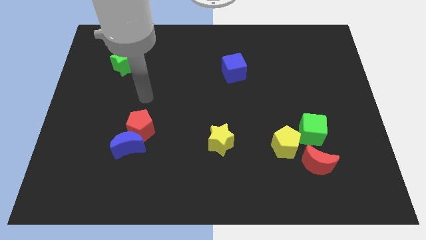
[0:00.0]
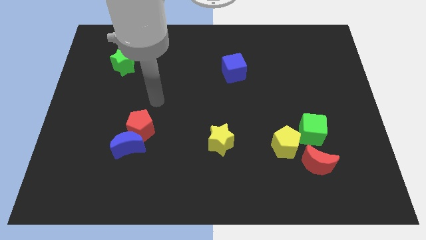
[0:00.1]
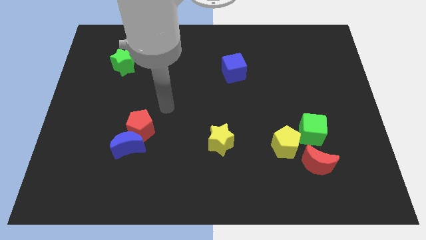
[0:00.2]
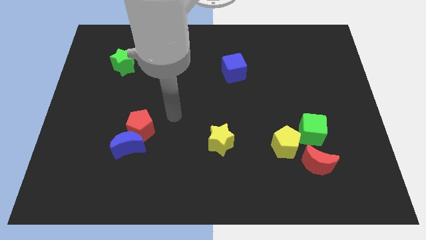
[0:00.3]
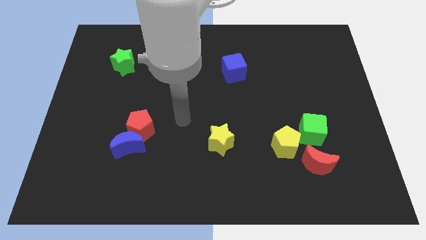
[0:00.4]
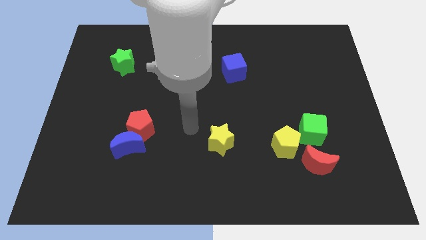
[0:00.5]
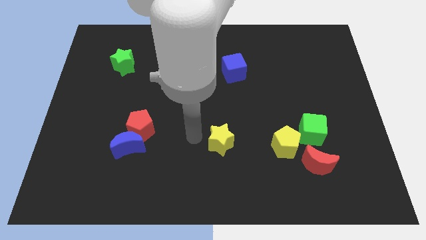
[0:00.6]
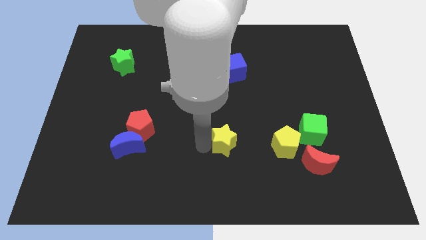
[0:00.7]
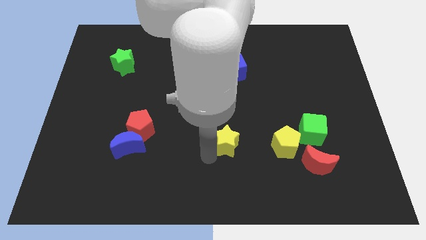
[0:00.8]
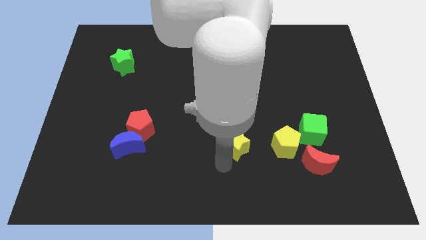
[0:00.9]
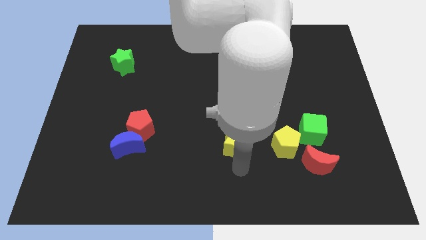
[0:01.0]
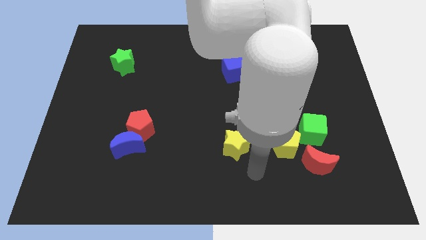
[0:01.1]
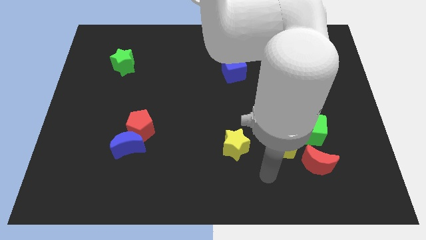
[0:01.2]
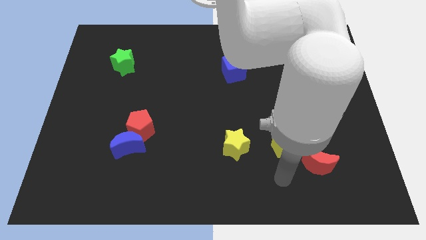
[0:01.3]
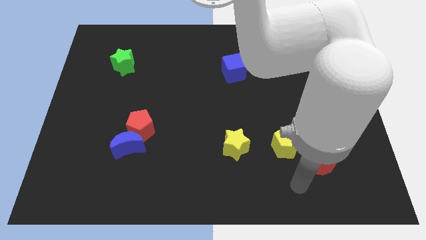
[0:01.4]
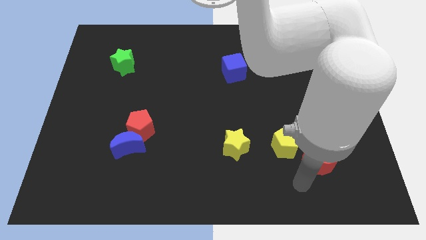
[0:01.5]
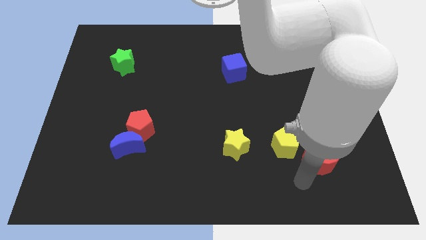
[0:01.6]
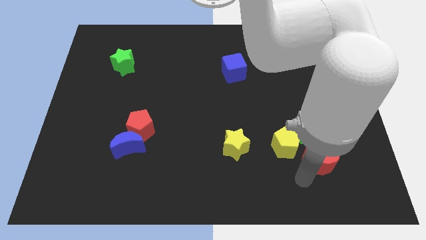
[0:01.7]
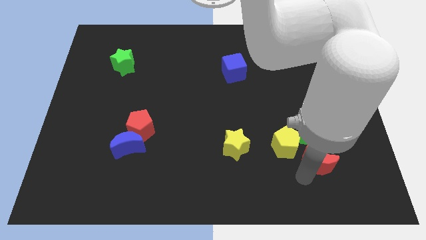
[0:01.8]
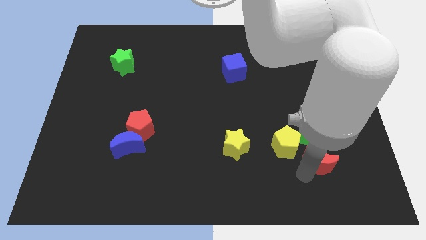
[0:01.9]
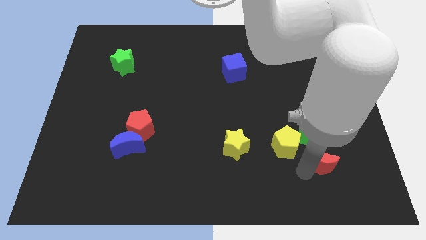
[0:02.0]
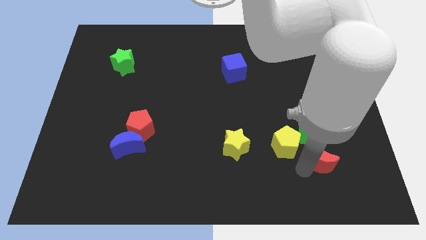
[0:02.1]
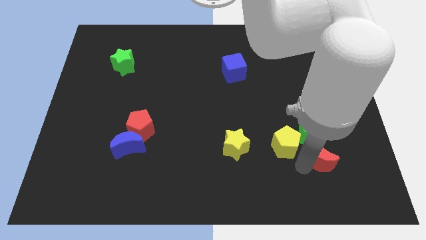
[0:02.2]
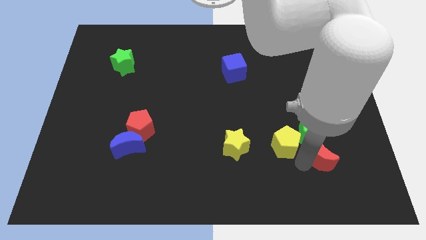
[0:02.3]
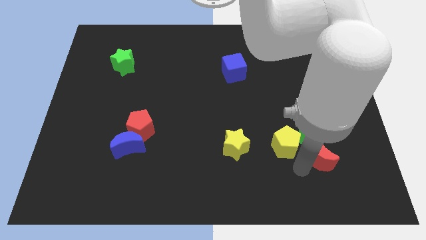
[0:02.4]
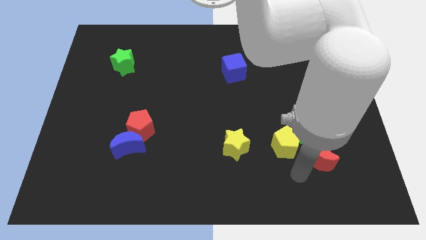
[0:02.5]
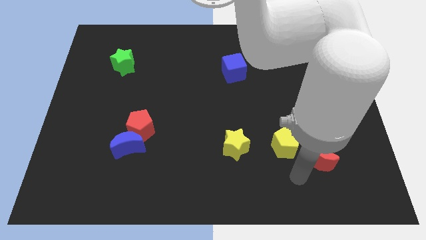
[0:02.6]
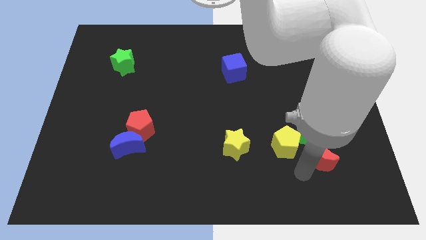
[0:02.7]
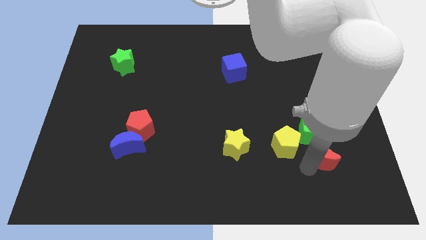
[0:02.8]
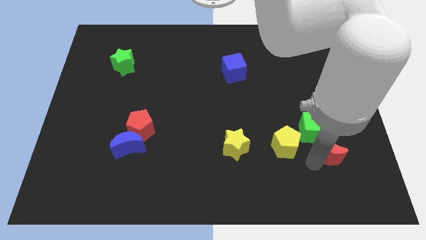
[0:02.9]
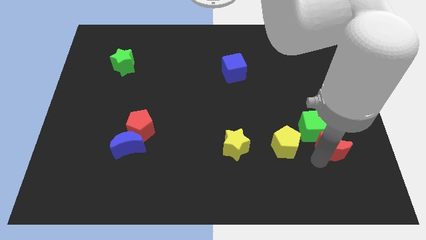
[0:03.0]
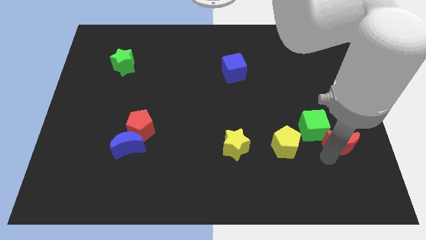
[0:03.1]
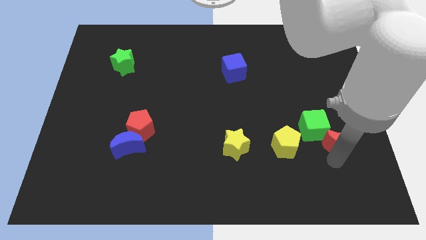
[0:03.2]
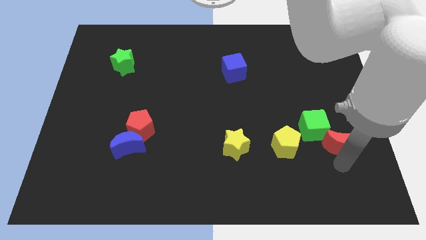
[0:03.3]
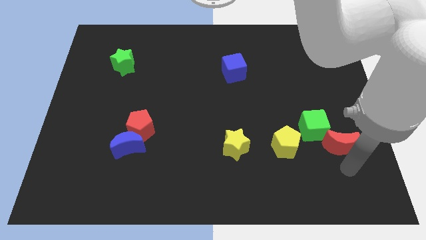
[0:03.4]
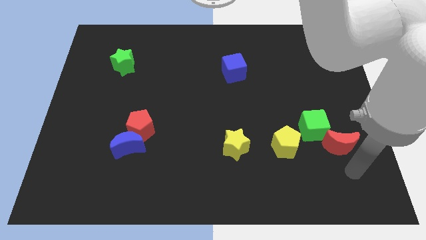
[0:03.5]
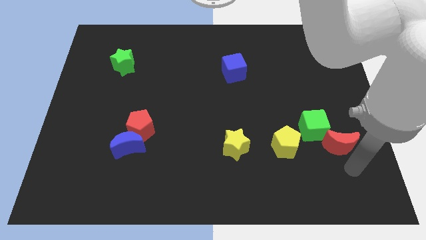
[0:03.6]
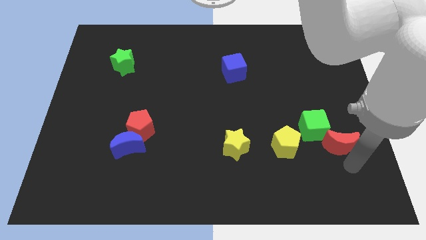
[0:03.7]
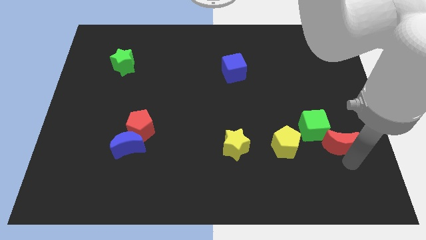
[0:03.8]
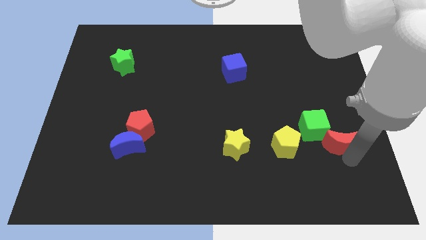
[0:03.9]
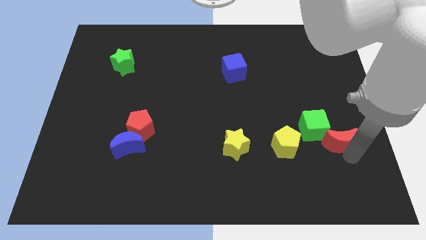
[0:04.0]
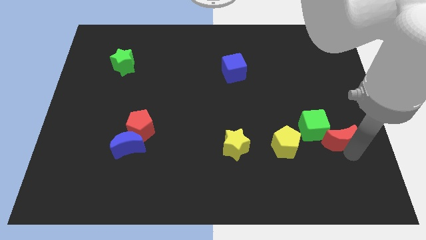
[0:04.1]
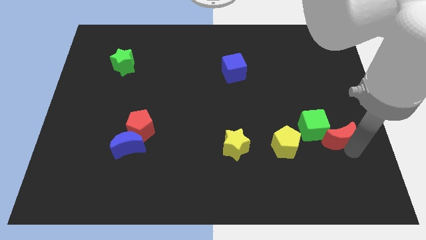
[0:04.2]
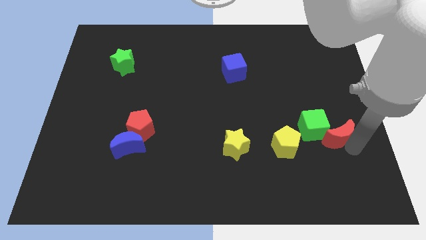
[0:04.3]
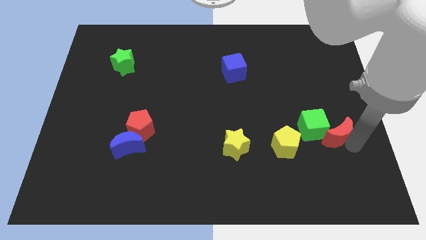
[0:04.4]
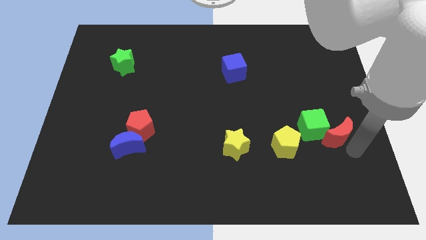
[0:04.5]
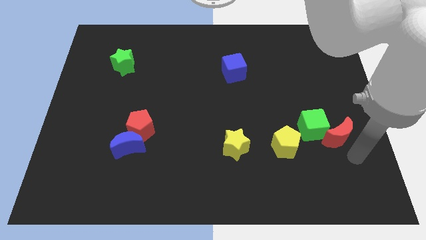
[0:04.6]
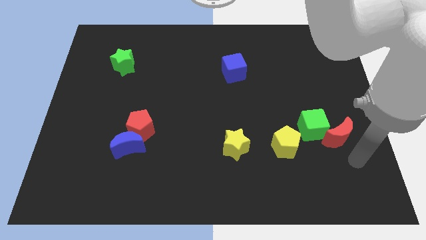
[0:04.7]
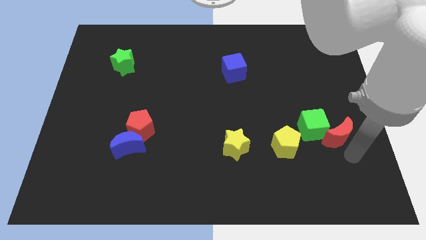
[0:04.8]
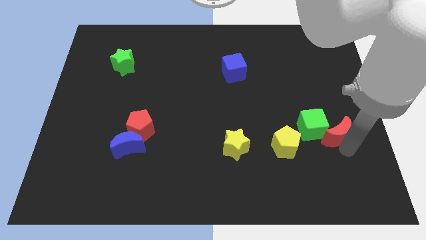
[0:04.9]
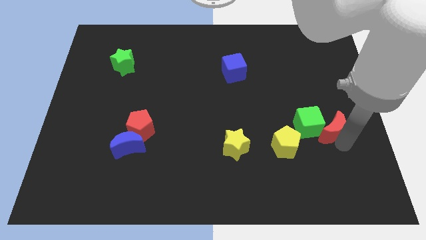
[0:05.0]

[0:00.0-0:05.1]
slightly slide the red moon up

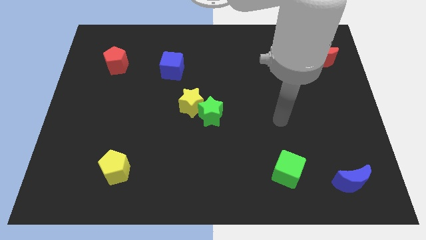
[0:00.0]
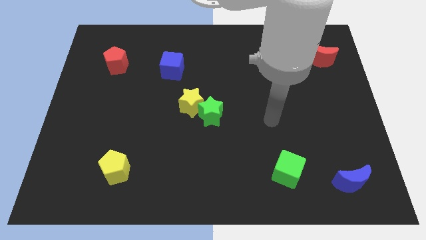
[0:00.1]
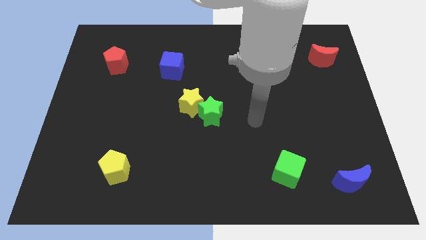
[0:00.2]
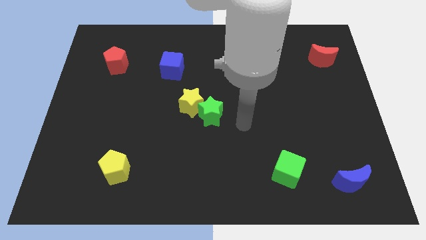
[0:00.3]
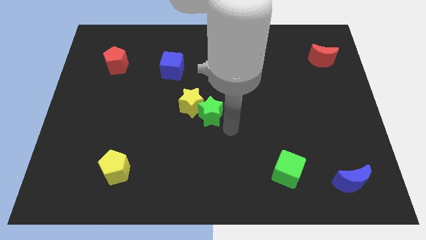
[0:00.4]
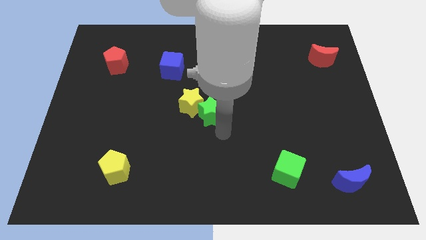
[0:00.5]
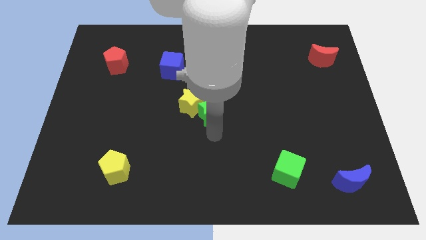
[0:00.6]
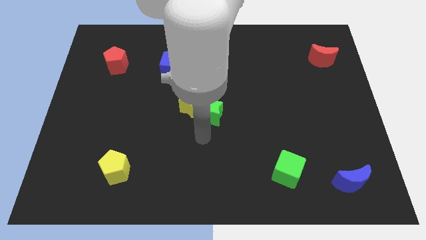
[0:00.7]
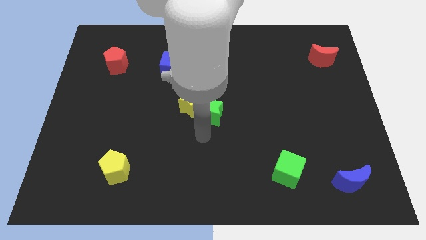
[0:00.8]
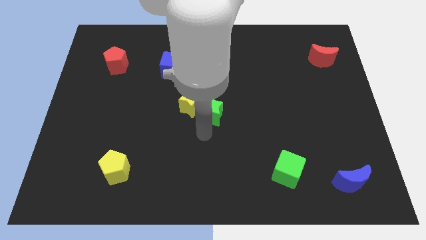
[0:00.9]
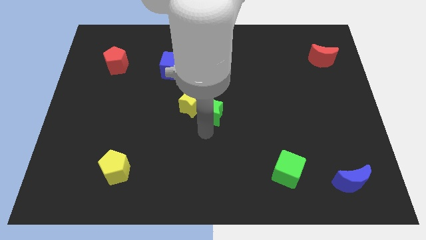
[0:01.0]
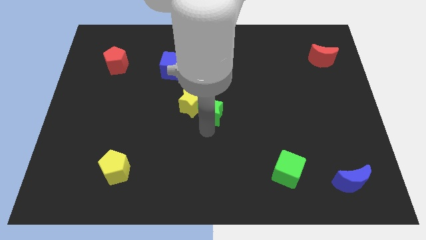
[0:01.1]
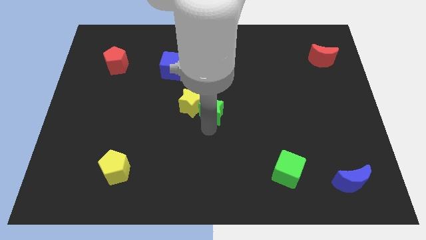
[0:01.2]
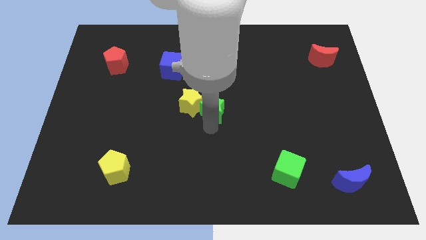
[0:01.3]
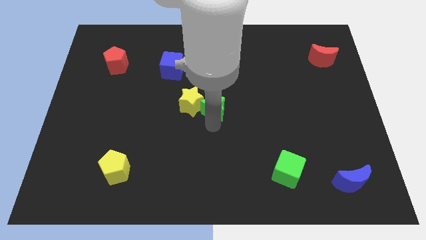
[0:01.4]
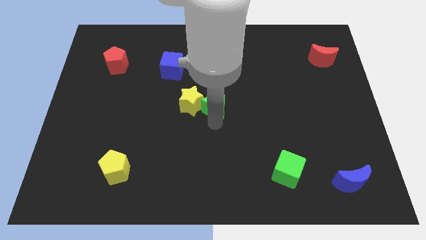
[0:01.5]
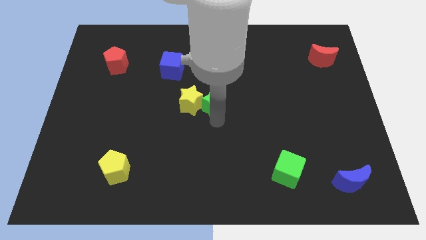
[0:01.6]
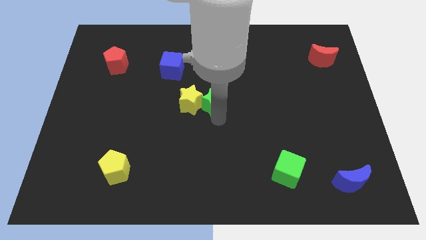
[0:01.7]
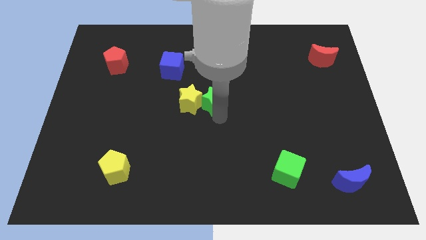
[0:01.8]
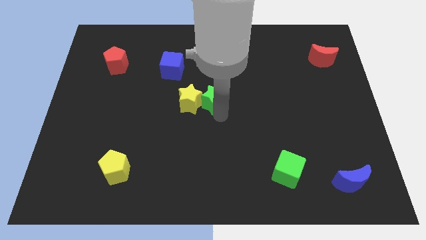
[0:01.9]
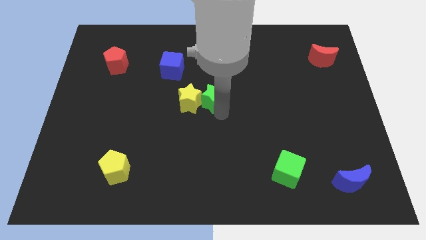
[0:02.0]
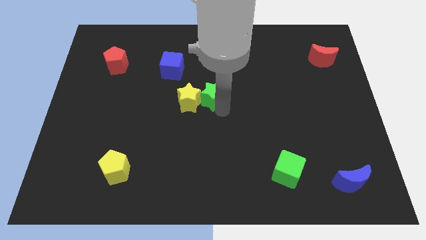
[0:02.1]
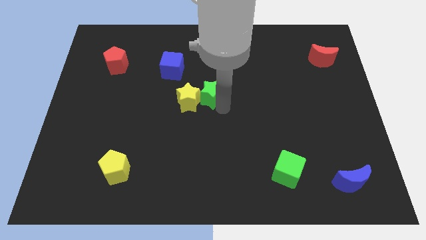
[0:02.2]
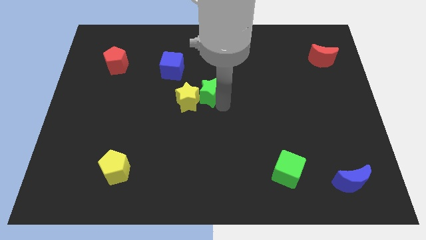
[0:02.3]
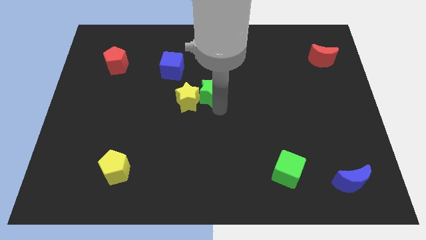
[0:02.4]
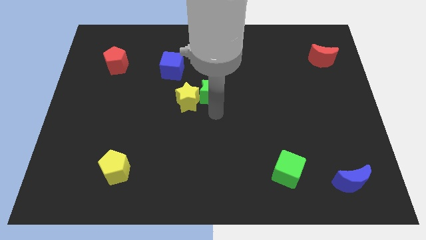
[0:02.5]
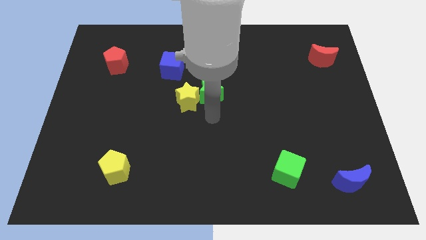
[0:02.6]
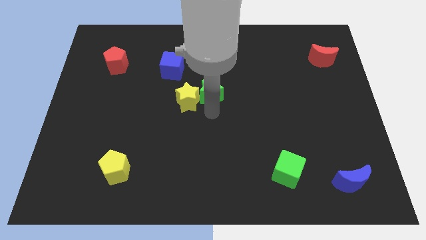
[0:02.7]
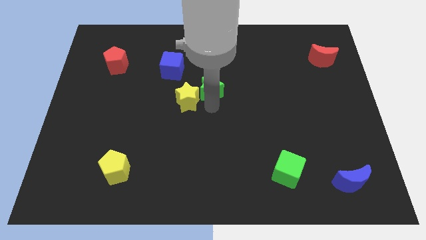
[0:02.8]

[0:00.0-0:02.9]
slide the green star a little bit up

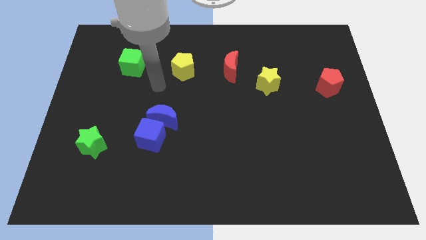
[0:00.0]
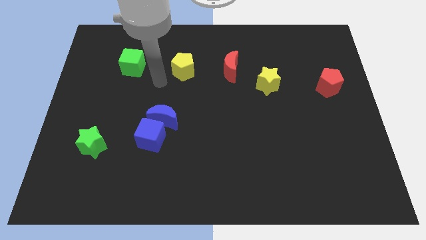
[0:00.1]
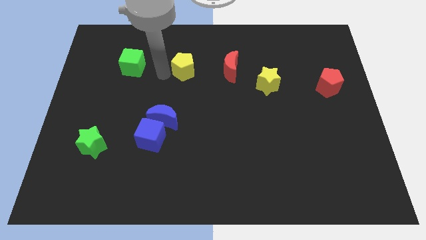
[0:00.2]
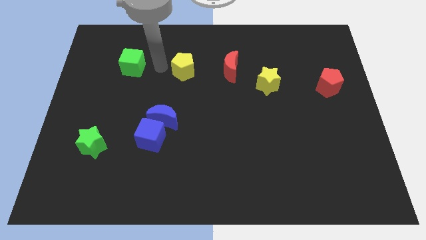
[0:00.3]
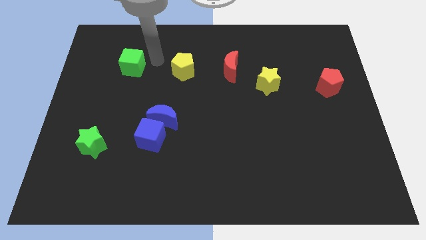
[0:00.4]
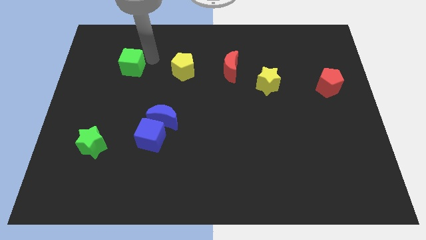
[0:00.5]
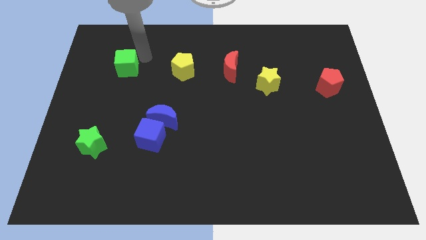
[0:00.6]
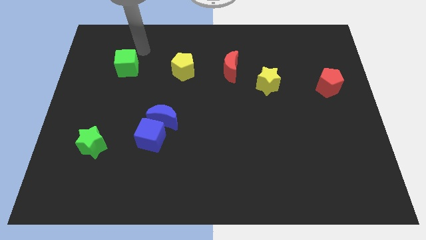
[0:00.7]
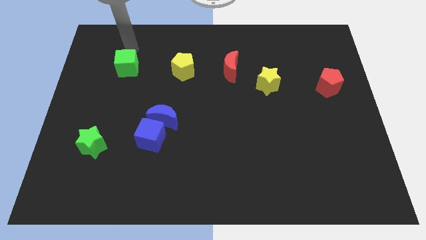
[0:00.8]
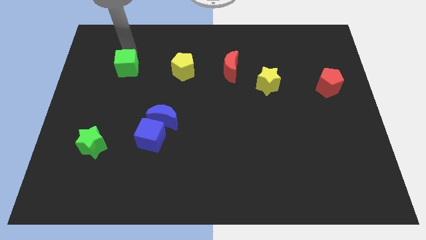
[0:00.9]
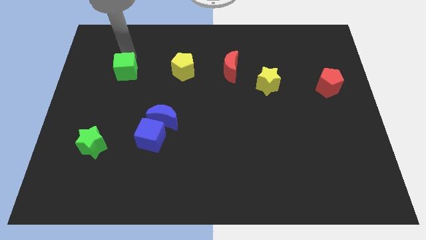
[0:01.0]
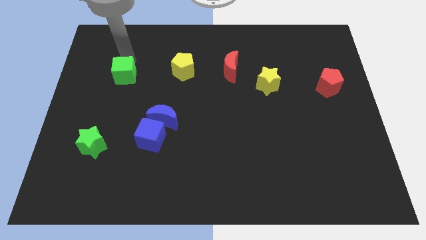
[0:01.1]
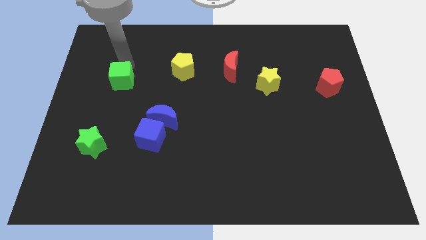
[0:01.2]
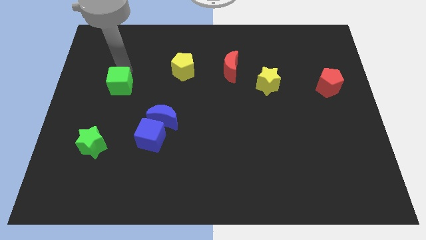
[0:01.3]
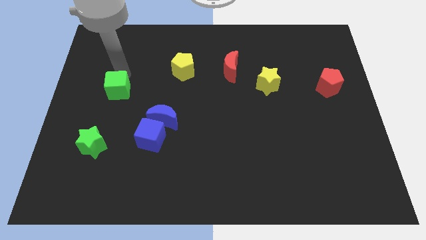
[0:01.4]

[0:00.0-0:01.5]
move the green cube downwards slightly
